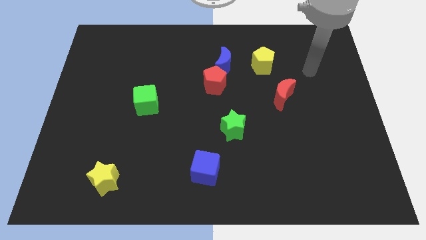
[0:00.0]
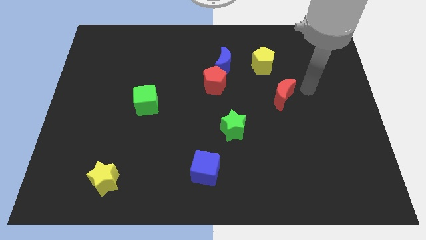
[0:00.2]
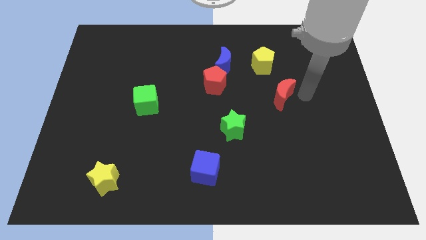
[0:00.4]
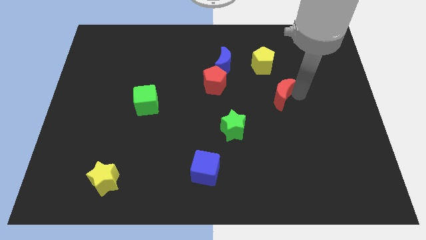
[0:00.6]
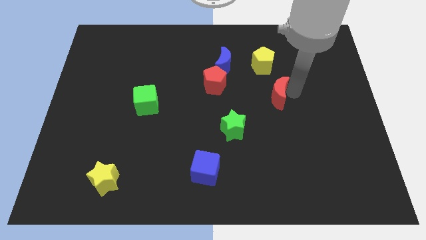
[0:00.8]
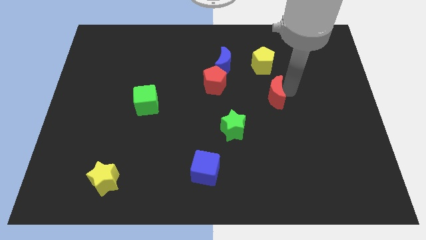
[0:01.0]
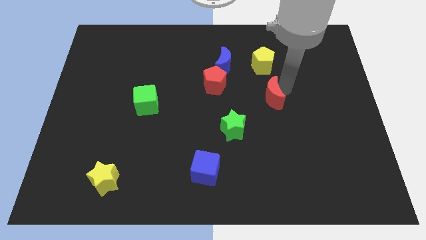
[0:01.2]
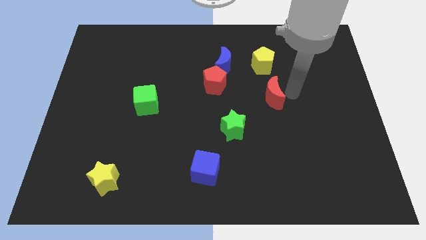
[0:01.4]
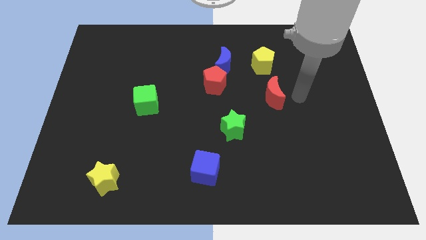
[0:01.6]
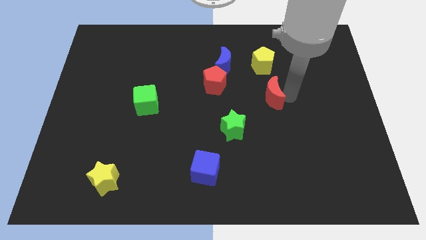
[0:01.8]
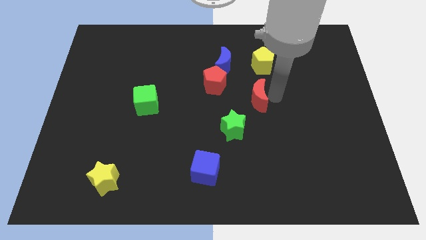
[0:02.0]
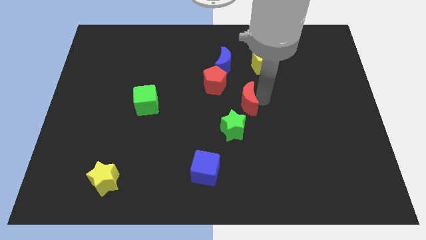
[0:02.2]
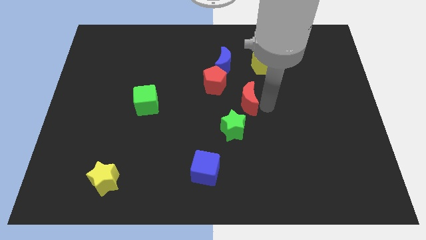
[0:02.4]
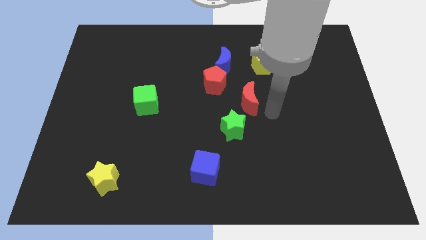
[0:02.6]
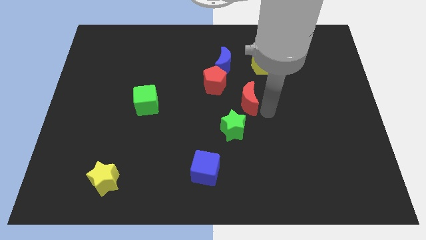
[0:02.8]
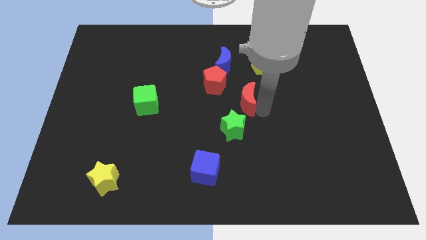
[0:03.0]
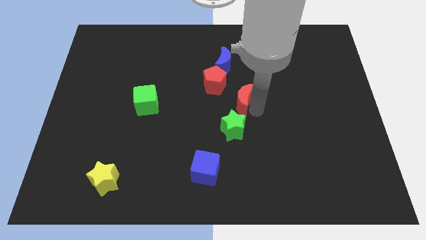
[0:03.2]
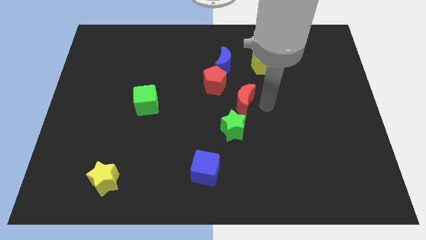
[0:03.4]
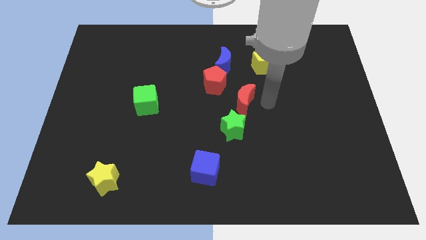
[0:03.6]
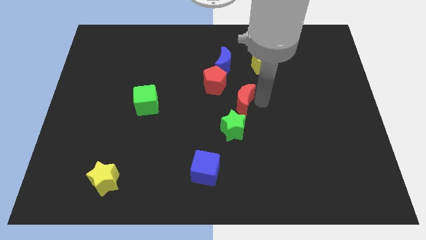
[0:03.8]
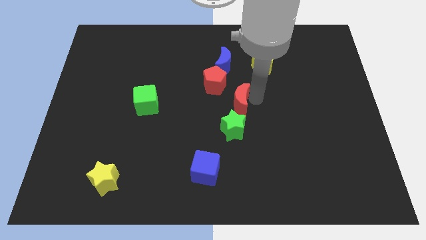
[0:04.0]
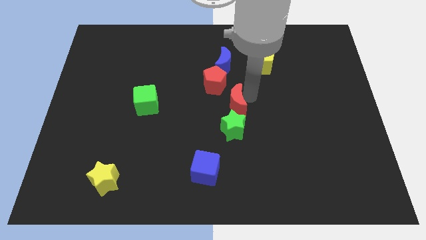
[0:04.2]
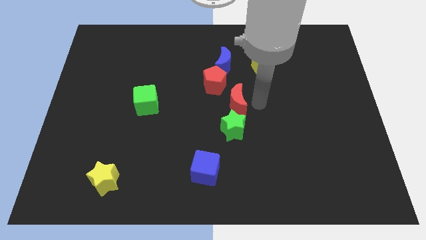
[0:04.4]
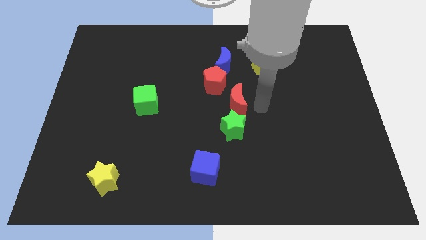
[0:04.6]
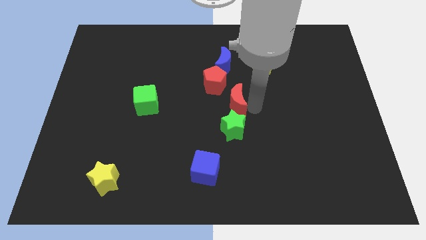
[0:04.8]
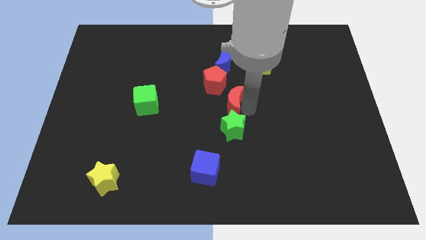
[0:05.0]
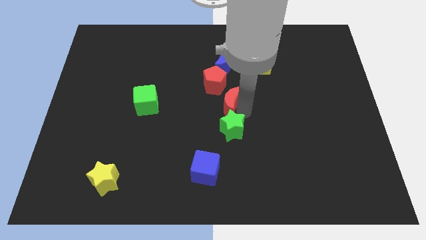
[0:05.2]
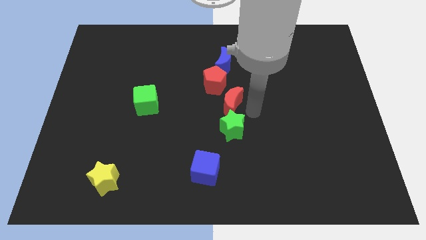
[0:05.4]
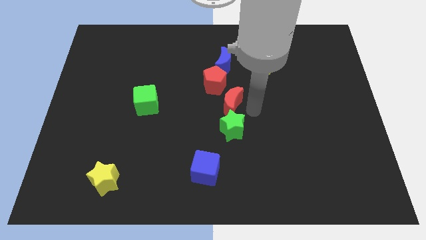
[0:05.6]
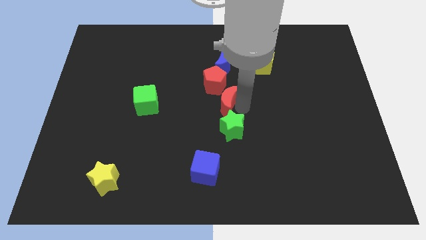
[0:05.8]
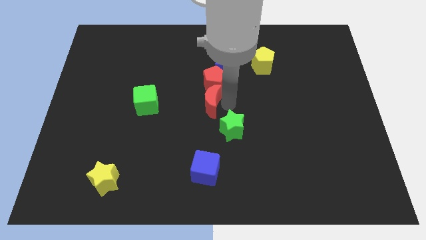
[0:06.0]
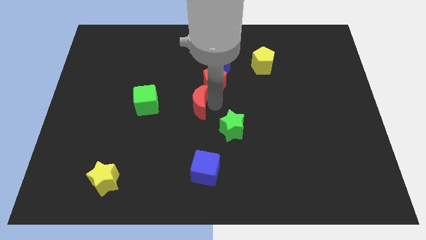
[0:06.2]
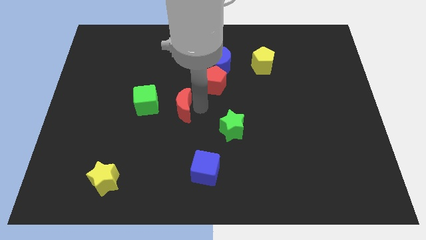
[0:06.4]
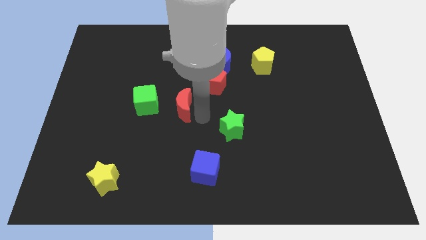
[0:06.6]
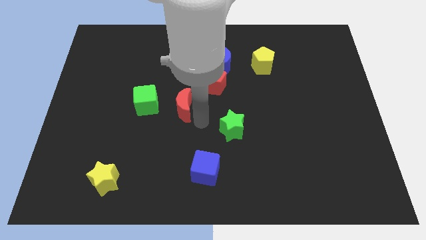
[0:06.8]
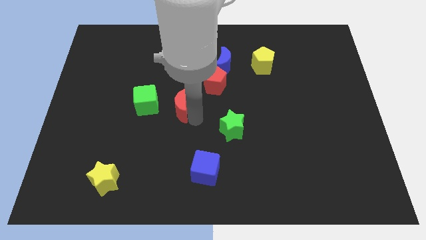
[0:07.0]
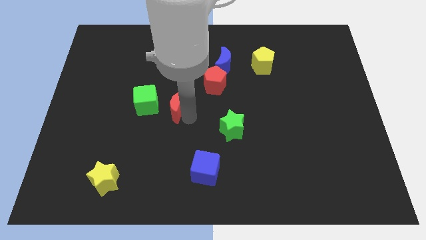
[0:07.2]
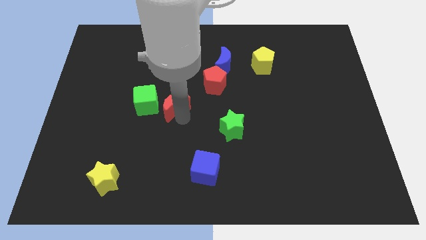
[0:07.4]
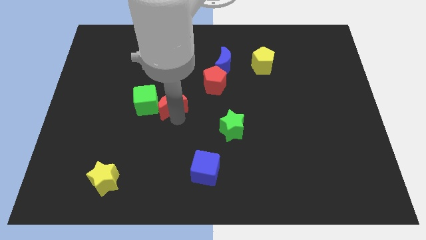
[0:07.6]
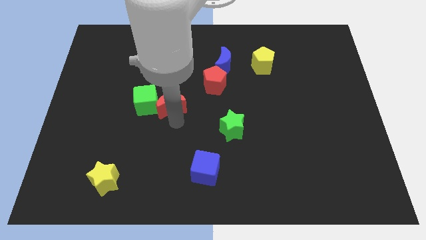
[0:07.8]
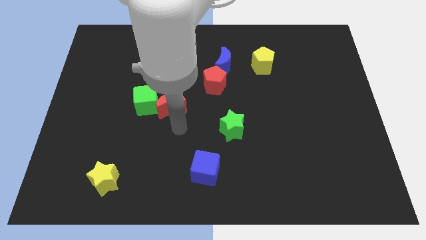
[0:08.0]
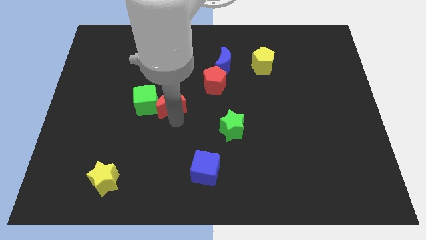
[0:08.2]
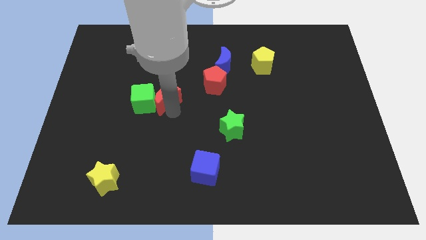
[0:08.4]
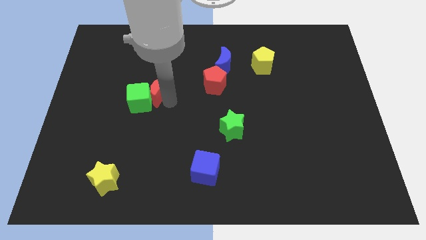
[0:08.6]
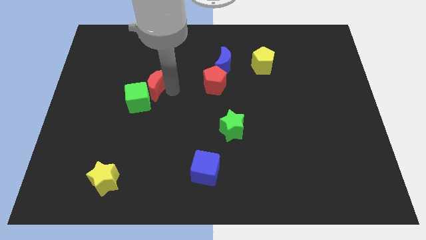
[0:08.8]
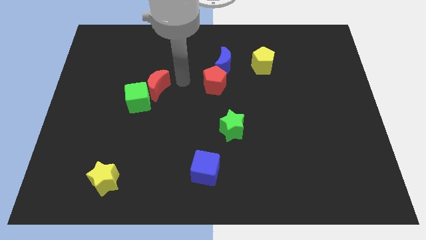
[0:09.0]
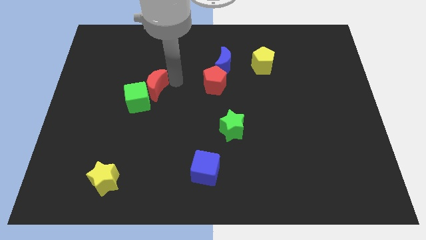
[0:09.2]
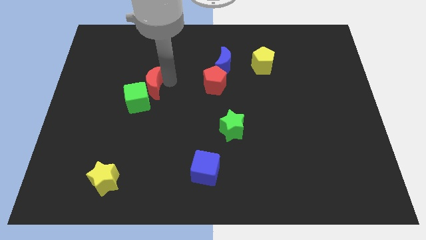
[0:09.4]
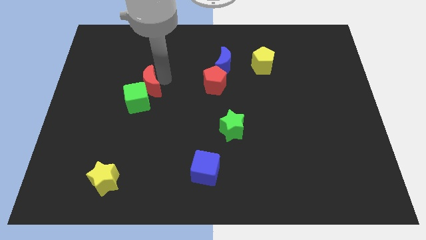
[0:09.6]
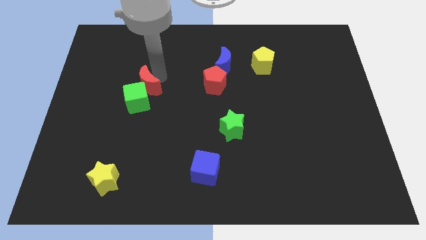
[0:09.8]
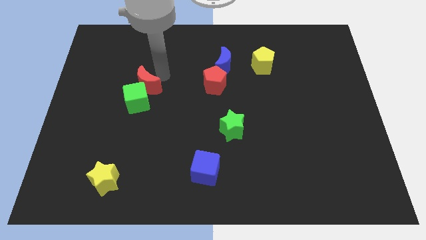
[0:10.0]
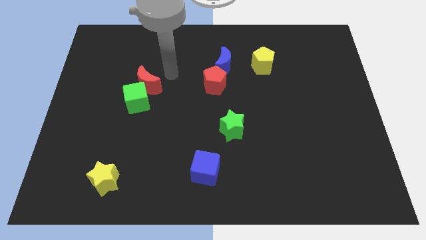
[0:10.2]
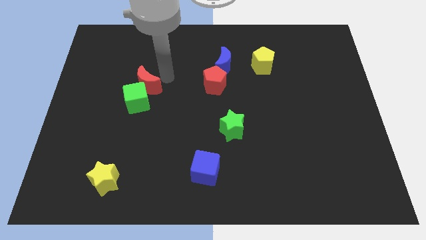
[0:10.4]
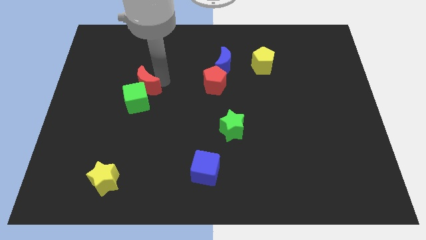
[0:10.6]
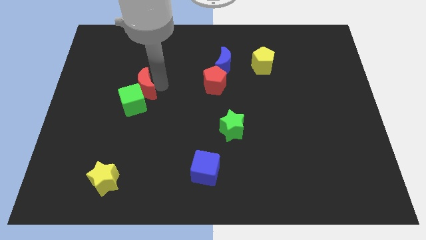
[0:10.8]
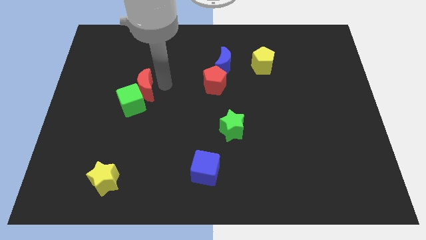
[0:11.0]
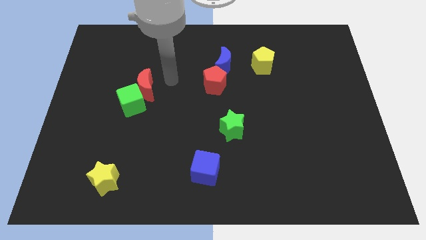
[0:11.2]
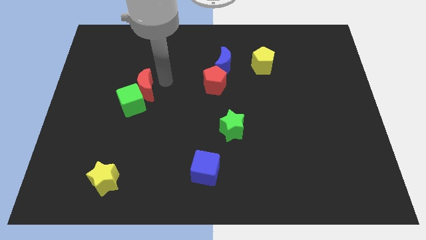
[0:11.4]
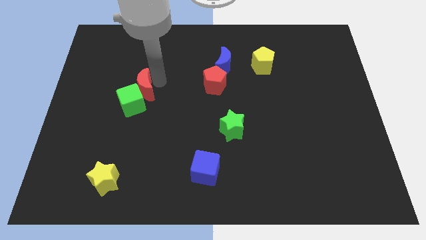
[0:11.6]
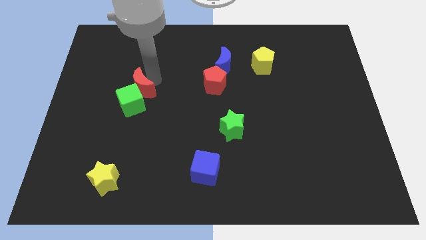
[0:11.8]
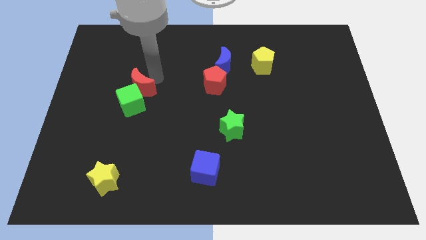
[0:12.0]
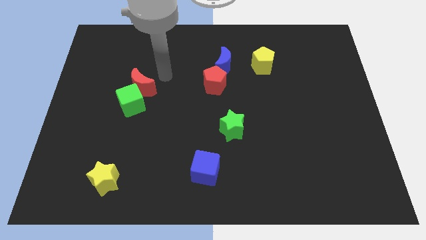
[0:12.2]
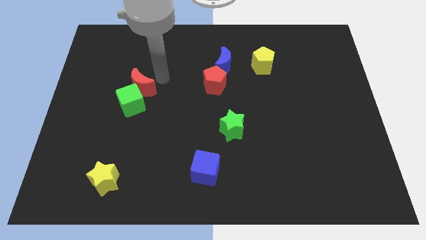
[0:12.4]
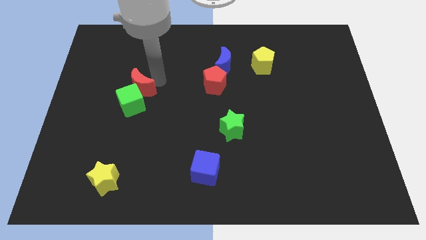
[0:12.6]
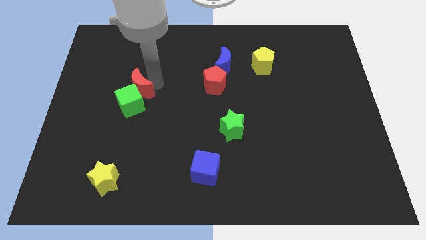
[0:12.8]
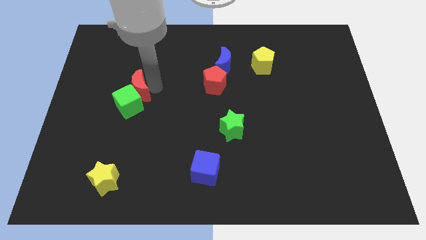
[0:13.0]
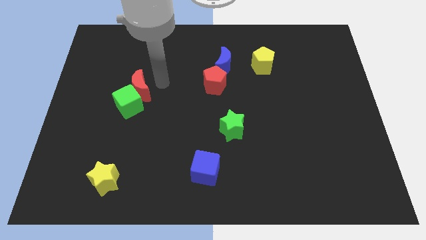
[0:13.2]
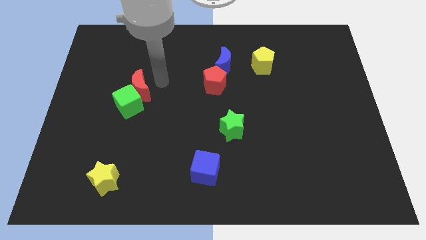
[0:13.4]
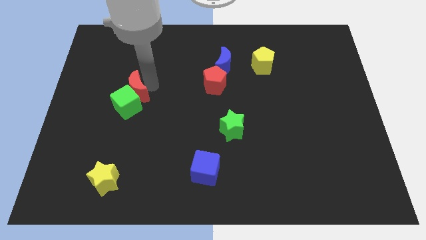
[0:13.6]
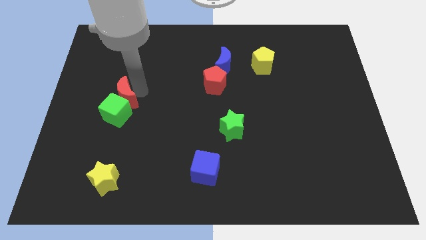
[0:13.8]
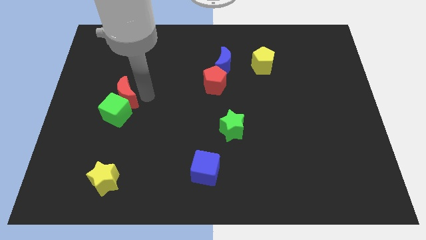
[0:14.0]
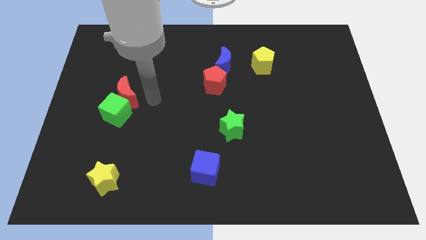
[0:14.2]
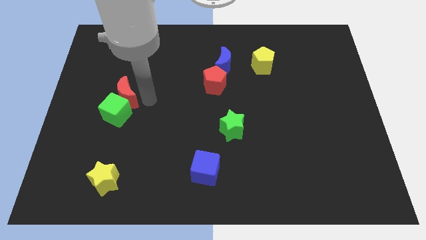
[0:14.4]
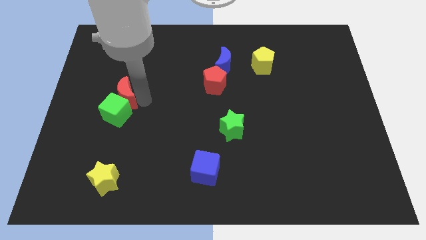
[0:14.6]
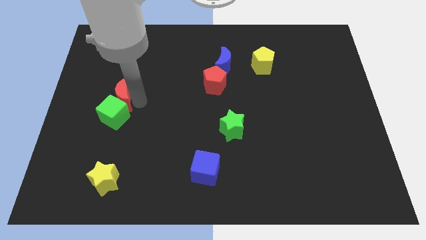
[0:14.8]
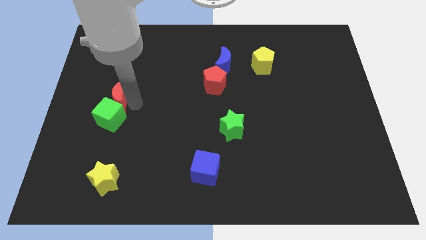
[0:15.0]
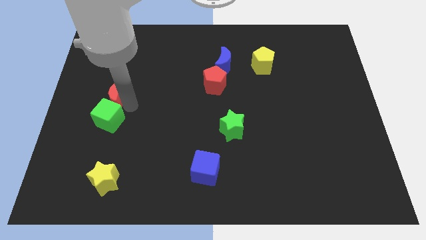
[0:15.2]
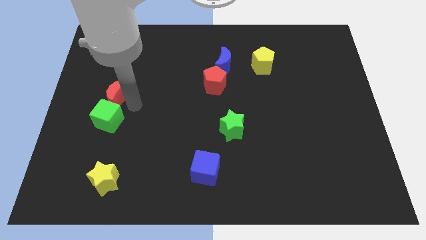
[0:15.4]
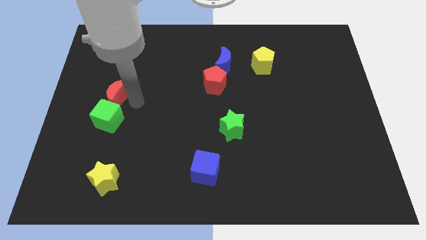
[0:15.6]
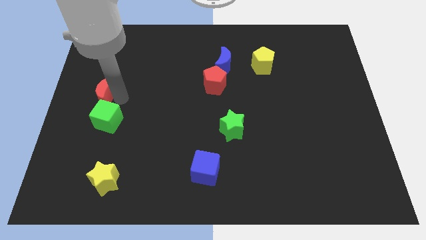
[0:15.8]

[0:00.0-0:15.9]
slide the red moon to the left side
